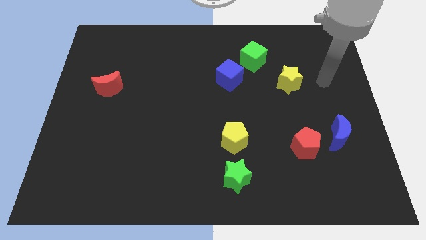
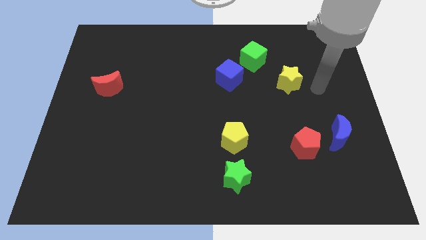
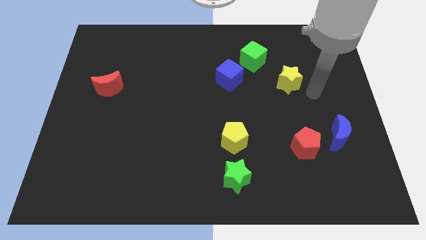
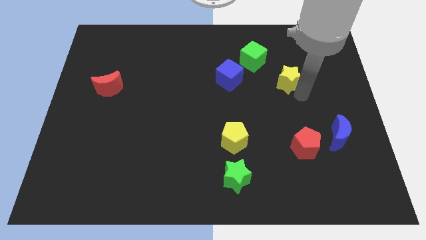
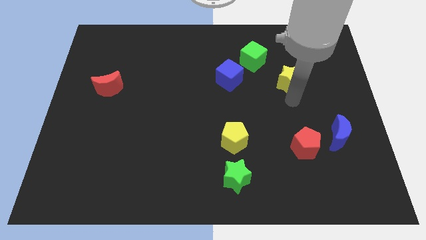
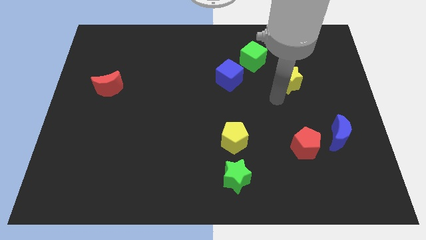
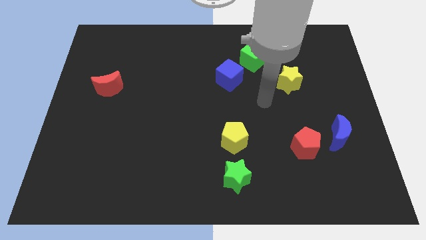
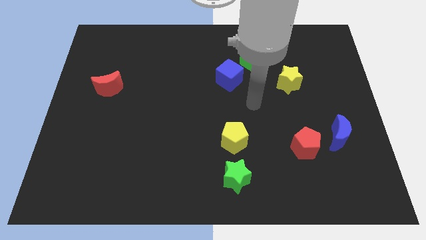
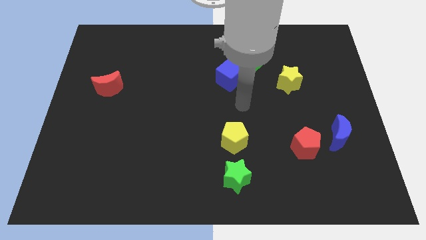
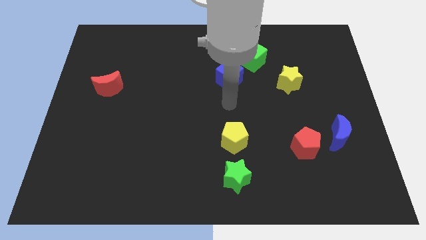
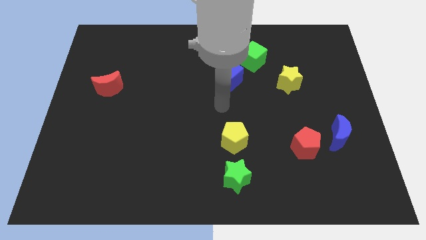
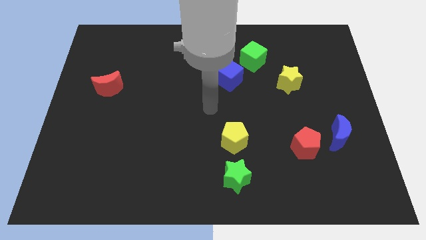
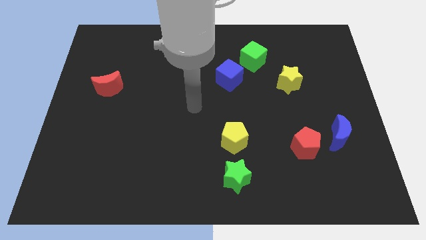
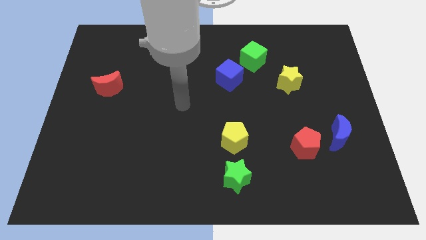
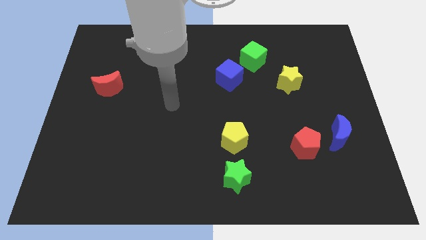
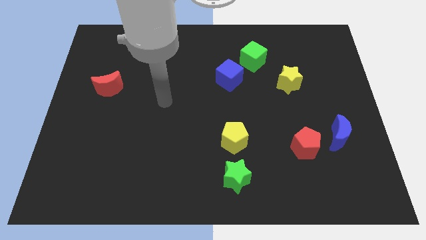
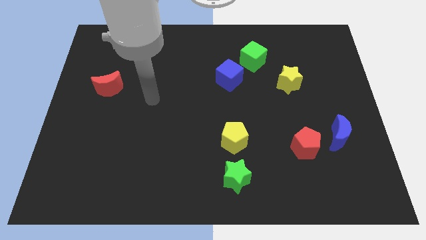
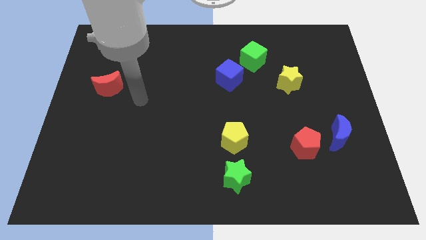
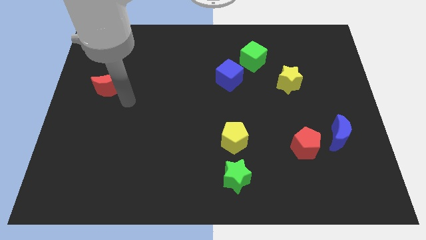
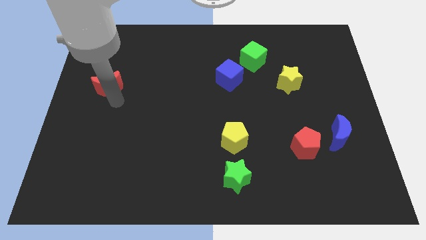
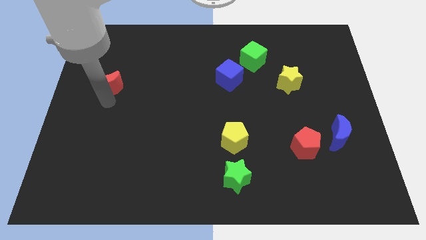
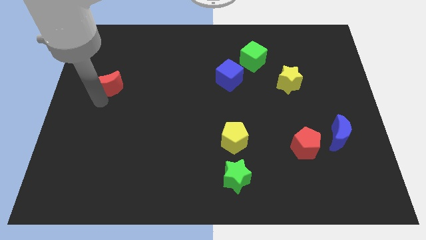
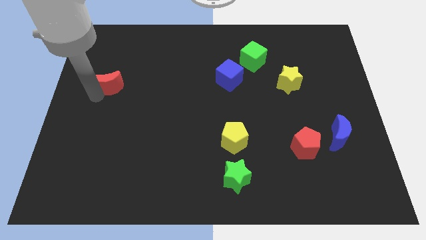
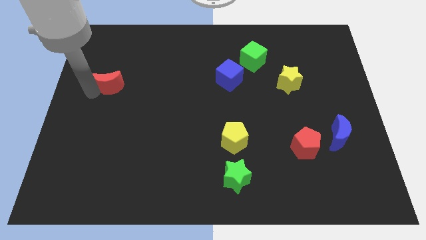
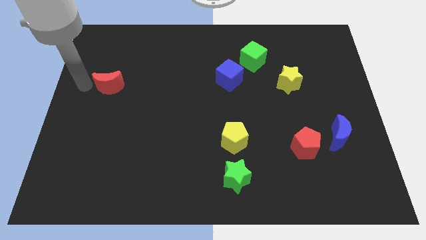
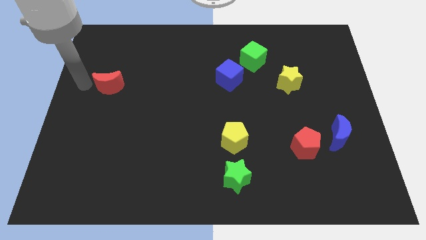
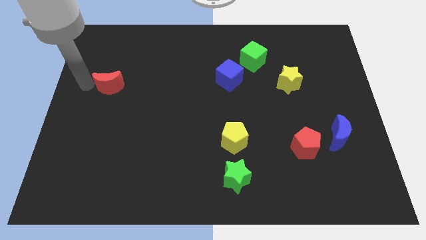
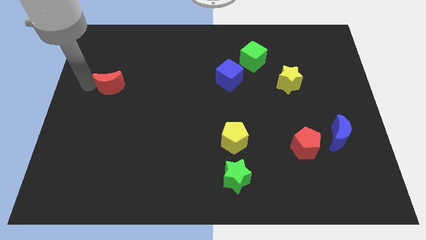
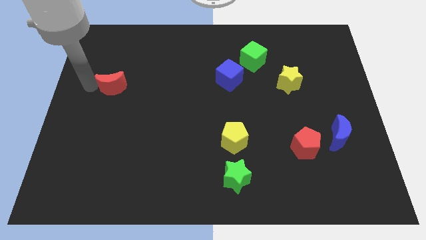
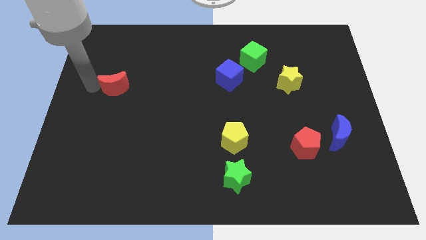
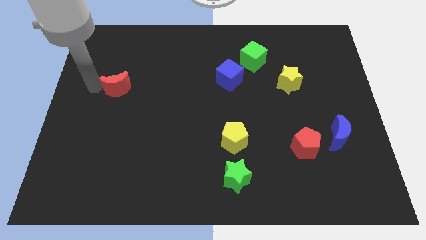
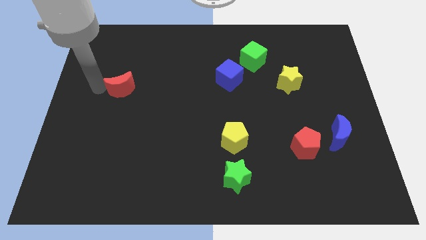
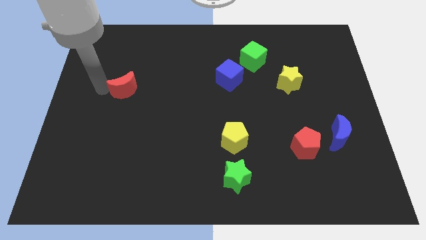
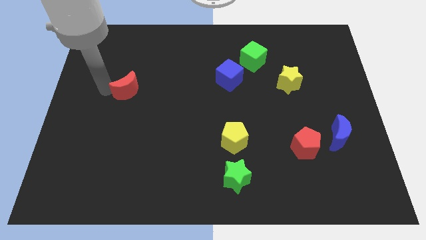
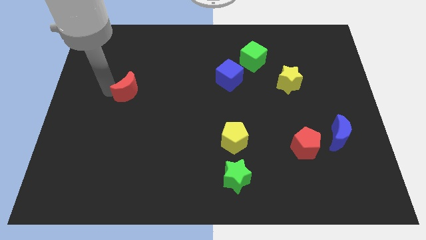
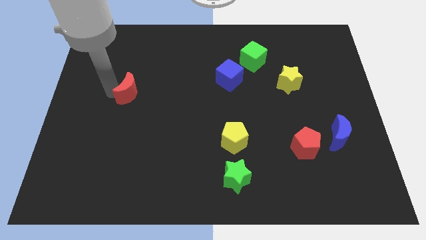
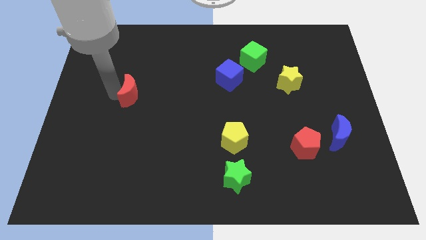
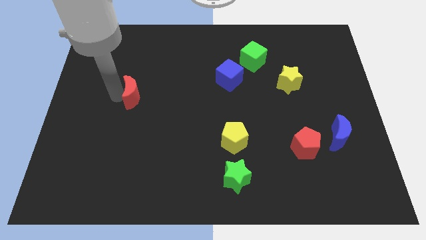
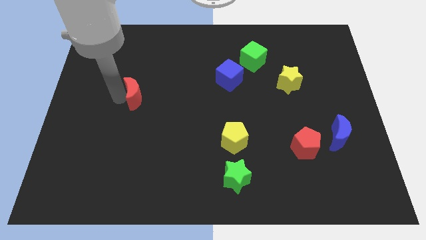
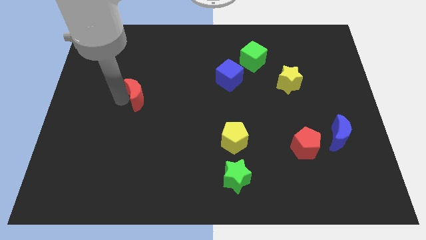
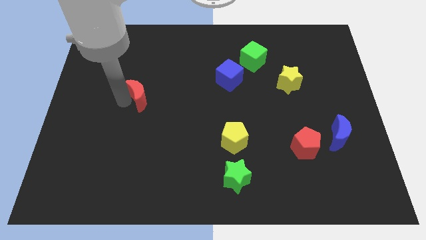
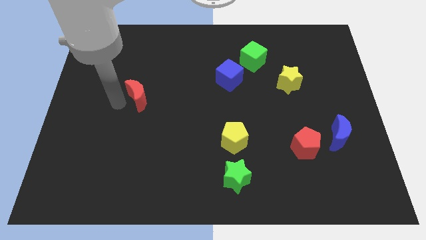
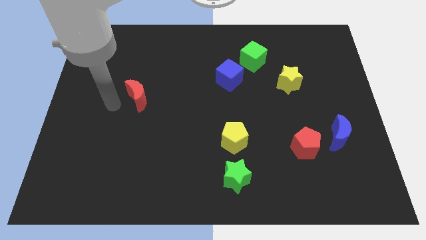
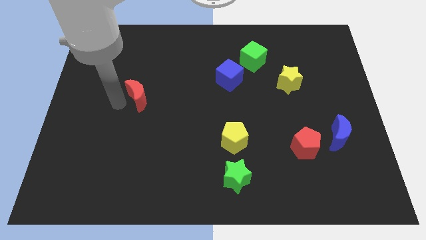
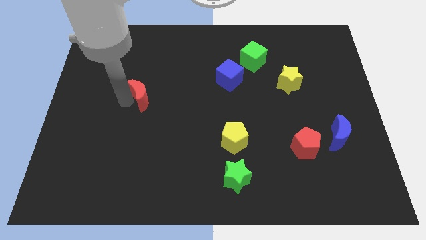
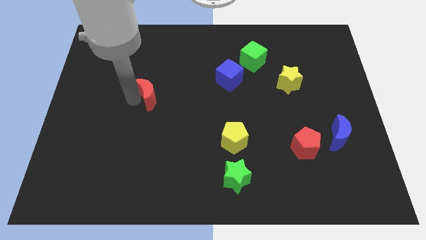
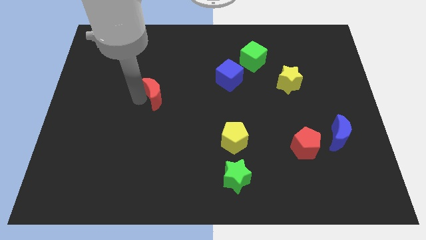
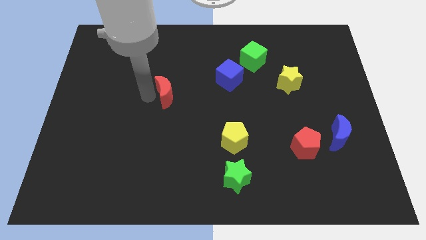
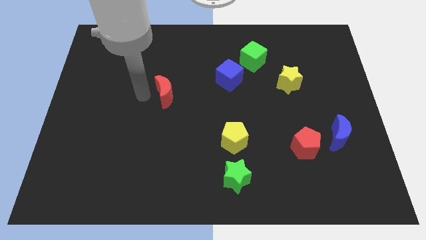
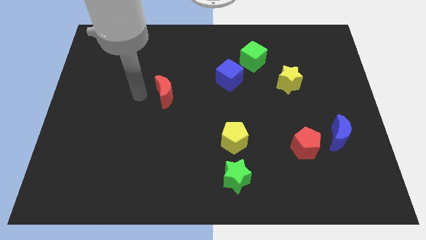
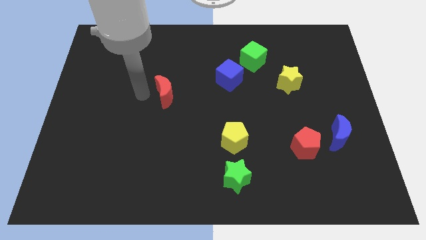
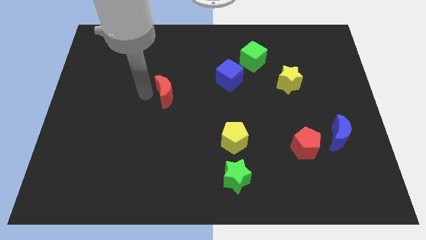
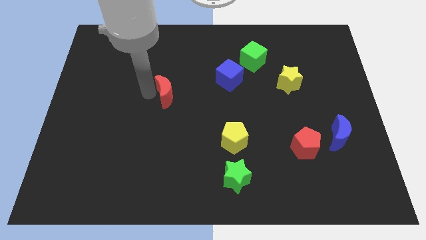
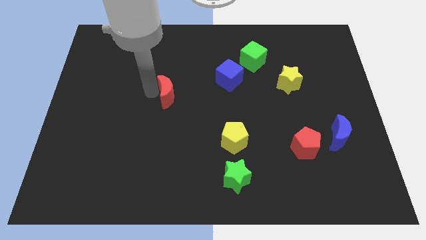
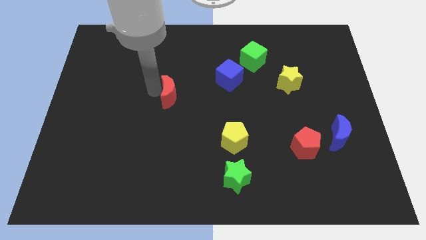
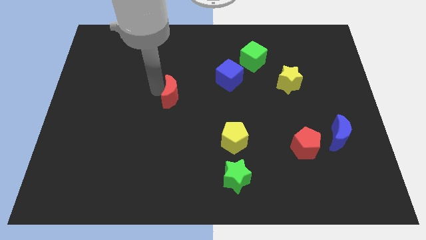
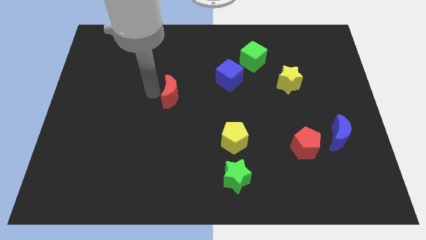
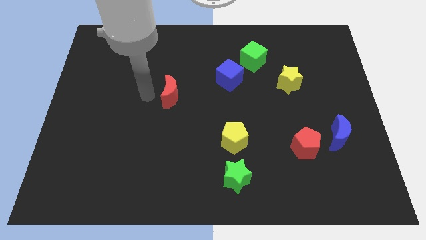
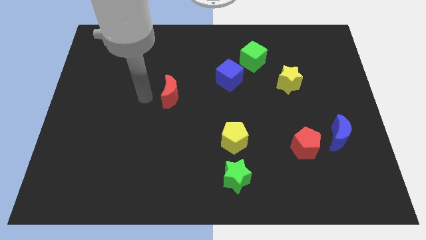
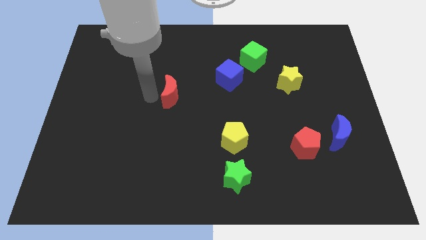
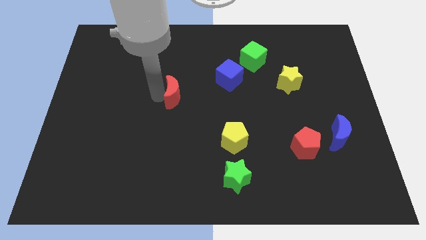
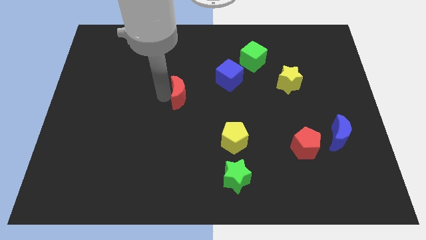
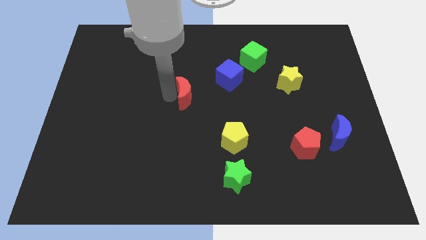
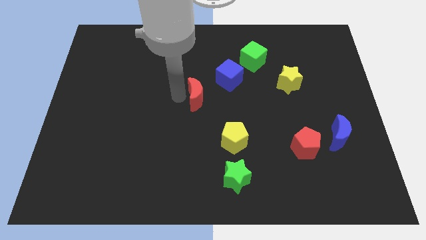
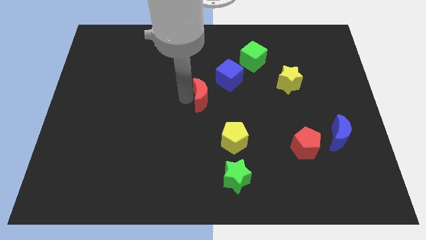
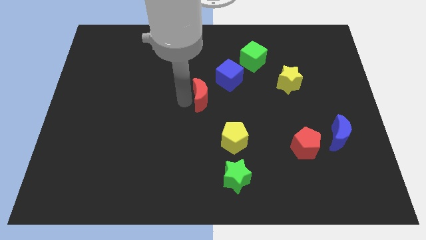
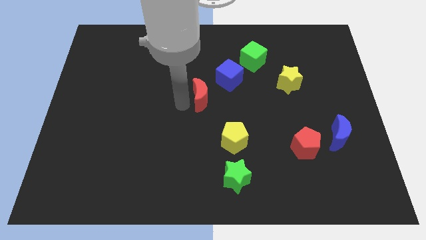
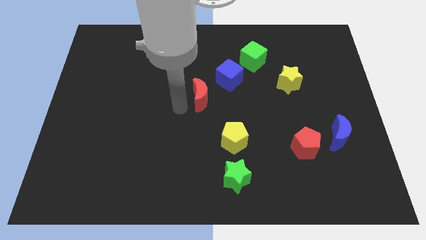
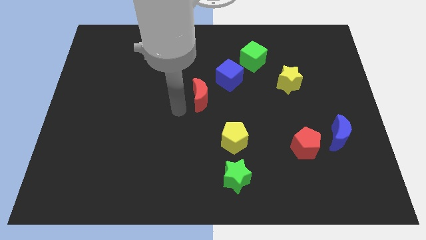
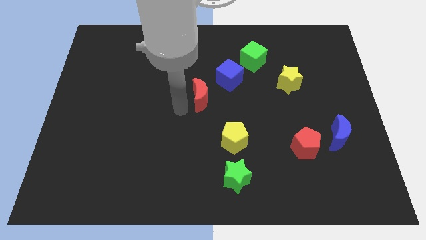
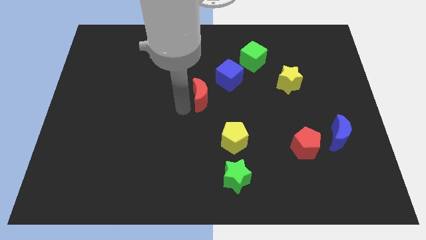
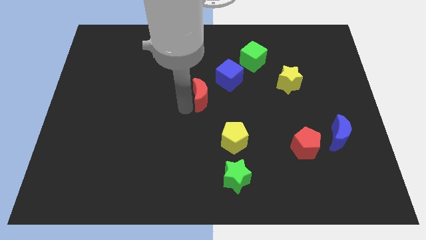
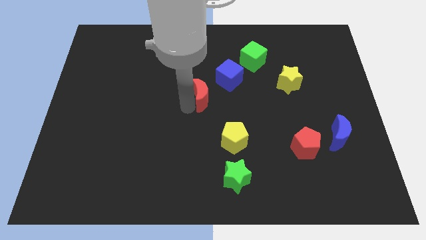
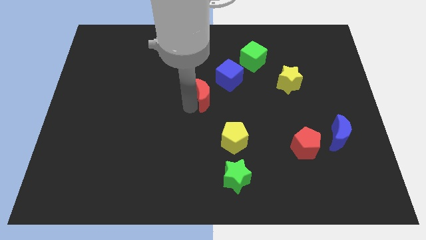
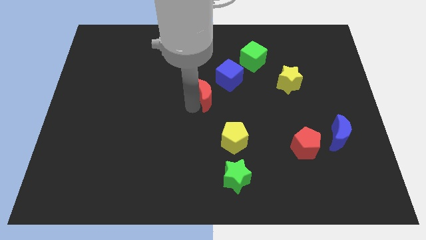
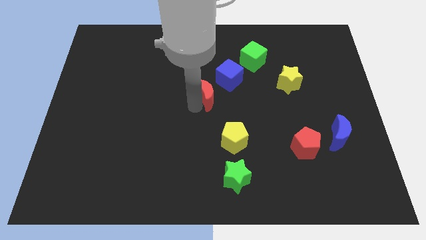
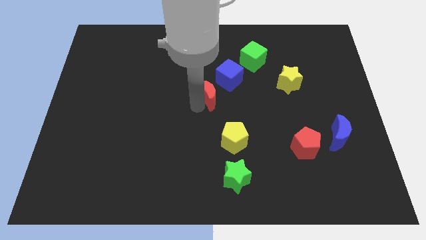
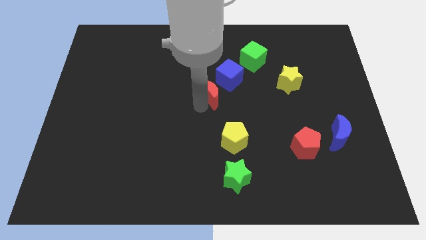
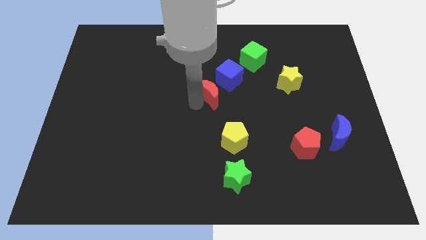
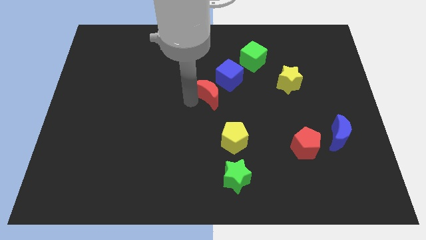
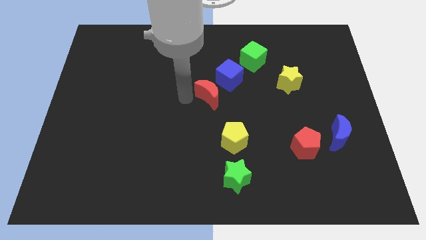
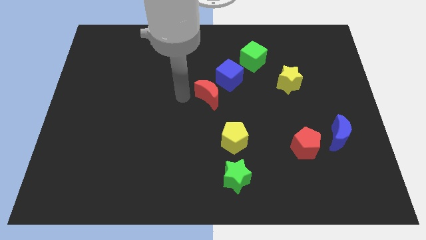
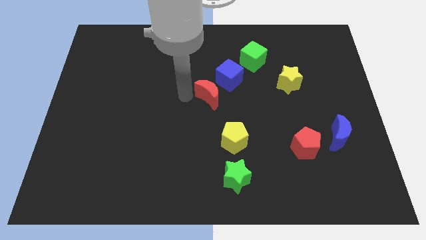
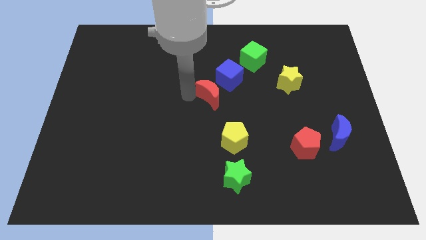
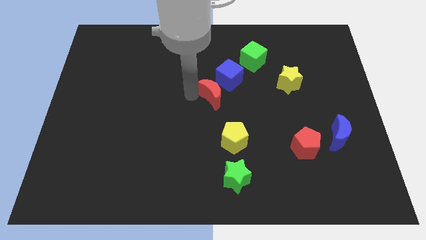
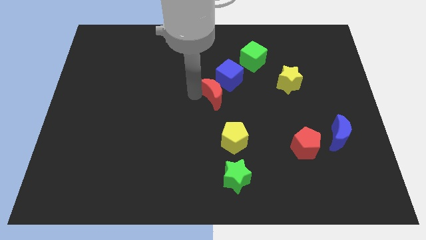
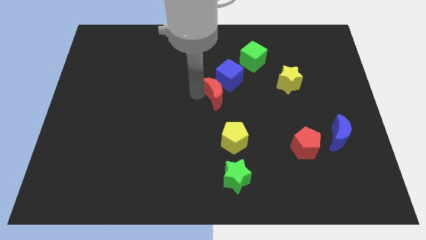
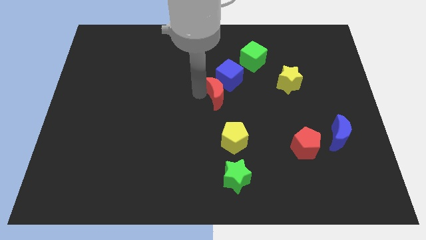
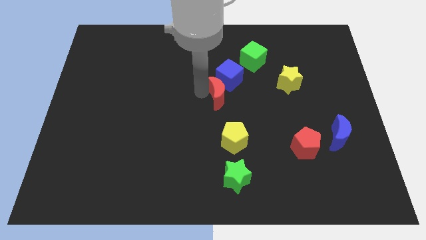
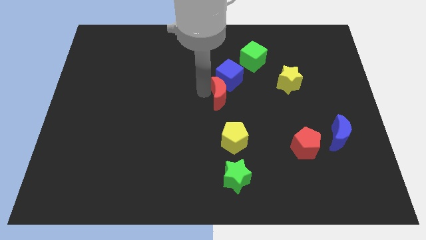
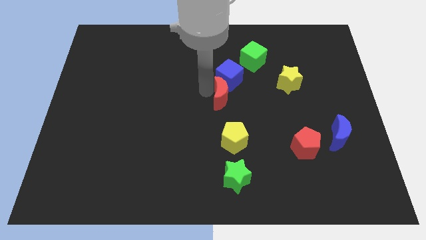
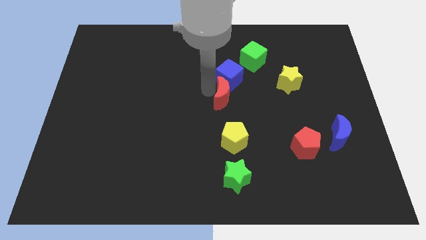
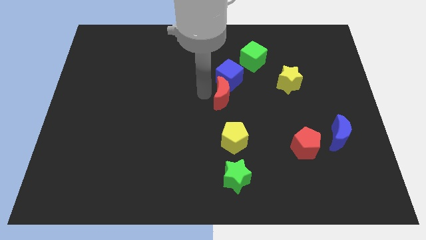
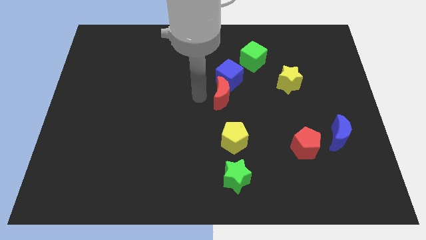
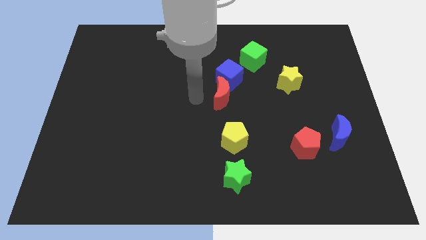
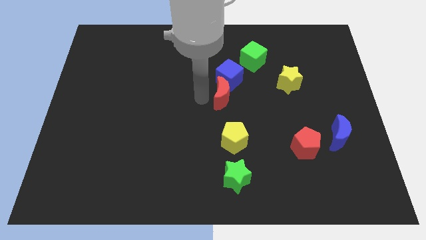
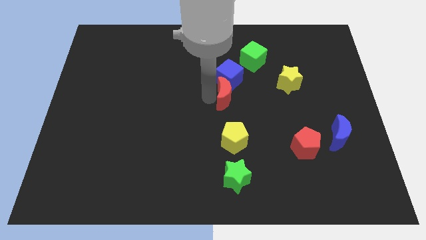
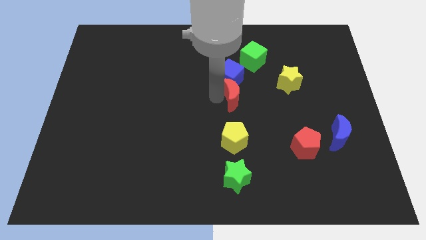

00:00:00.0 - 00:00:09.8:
slide the red moon diagonally down and to the right of the blue cube
